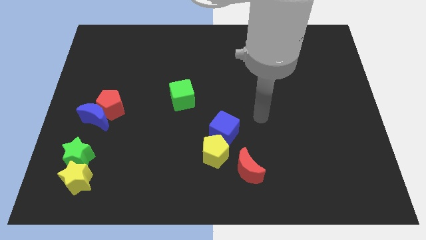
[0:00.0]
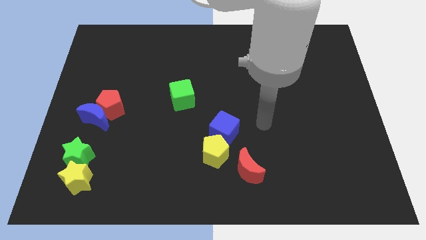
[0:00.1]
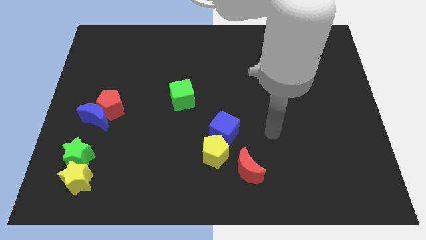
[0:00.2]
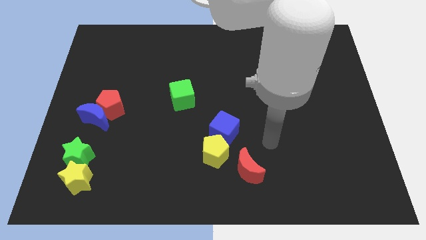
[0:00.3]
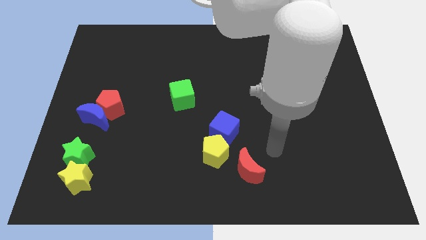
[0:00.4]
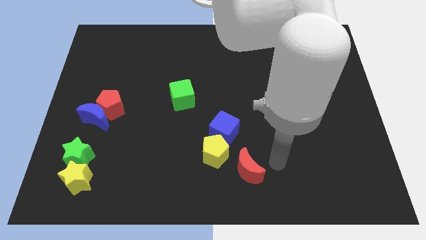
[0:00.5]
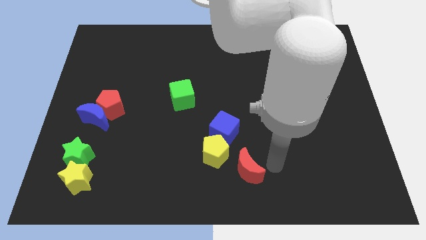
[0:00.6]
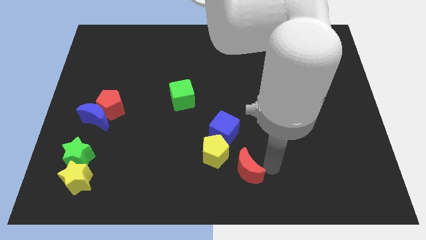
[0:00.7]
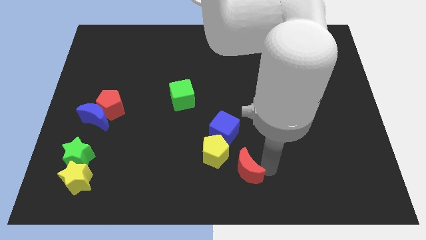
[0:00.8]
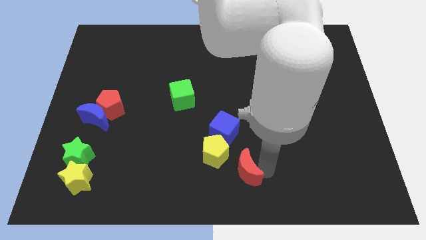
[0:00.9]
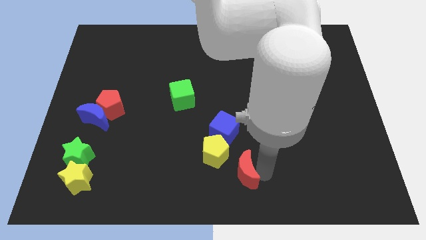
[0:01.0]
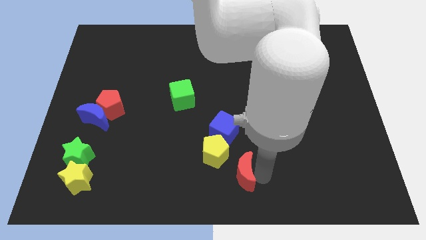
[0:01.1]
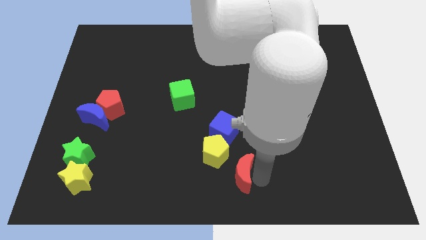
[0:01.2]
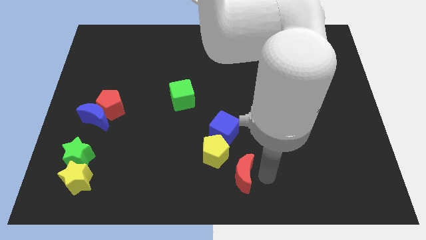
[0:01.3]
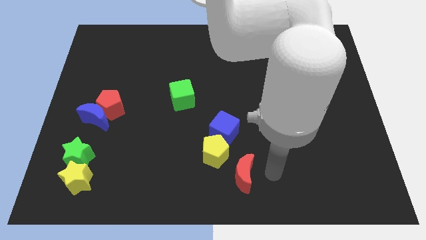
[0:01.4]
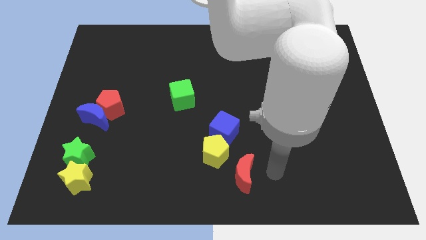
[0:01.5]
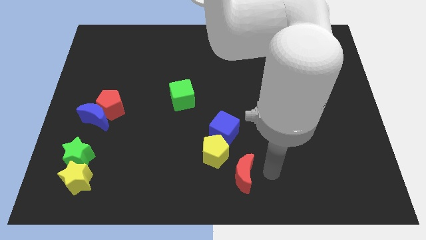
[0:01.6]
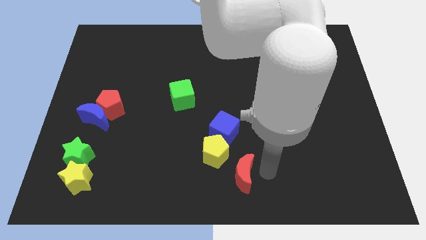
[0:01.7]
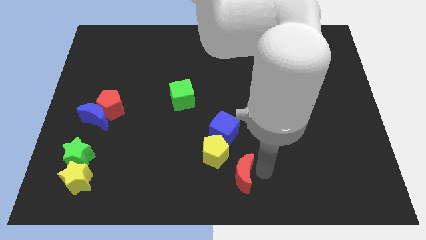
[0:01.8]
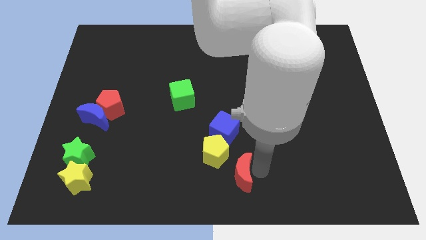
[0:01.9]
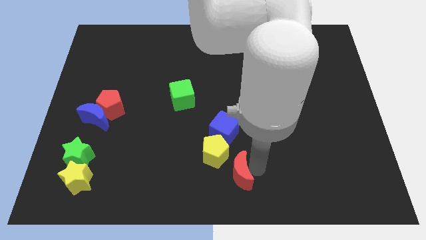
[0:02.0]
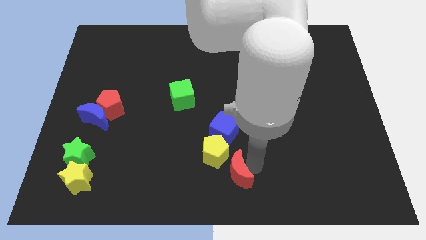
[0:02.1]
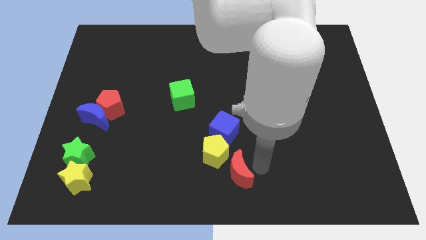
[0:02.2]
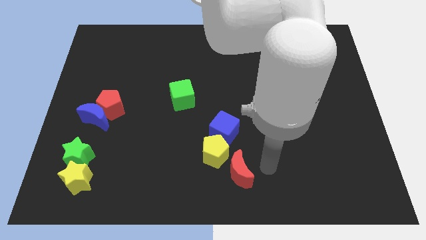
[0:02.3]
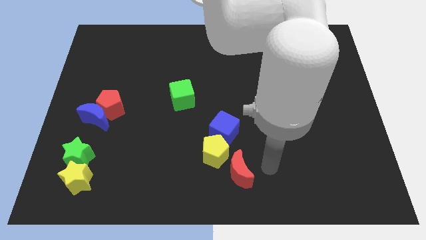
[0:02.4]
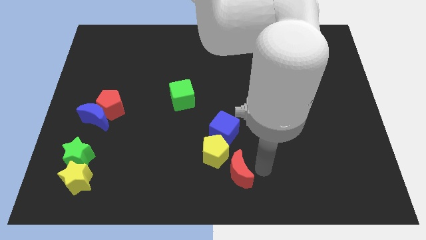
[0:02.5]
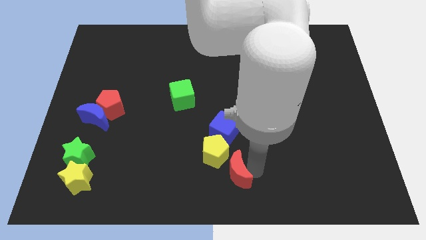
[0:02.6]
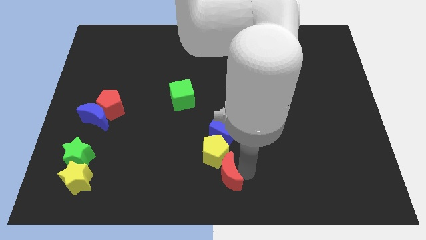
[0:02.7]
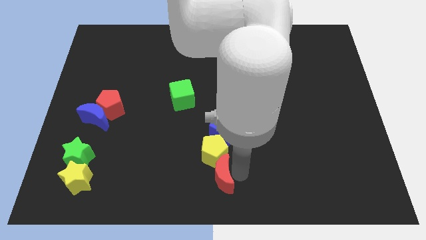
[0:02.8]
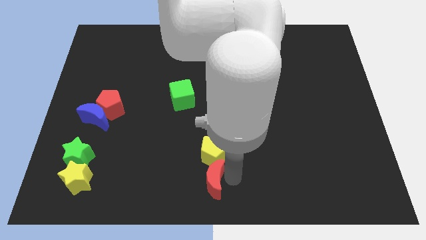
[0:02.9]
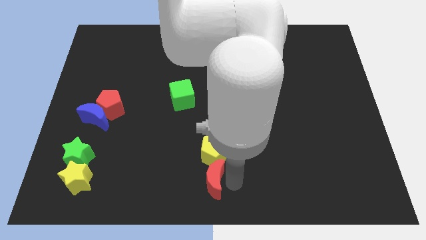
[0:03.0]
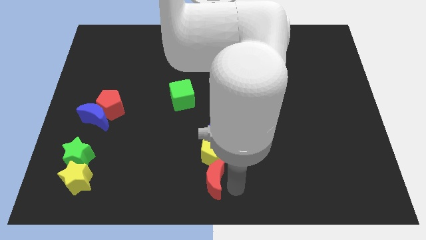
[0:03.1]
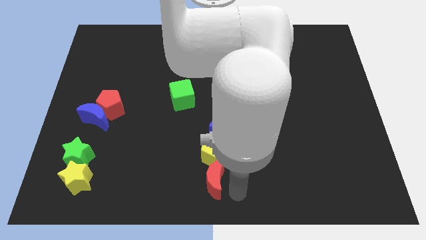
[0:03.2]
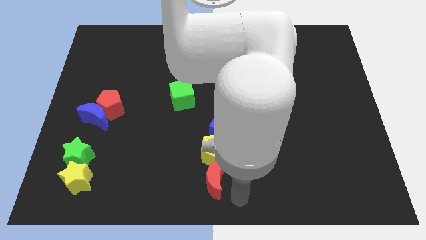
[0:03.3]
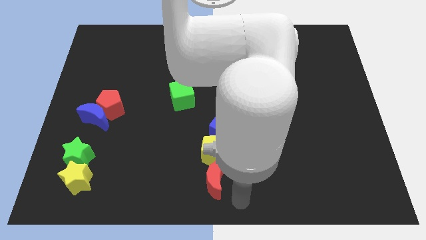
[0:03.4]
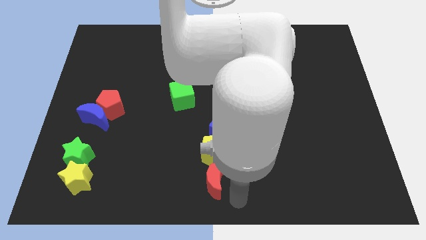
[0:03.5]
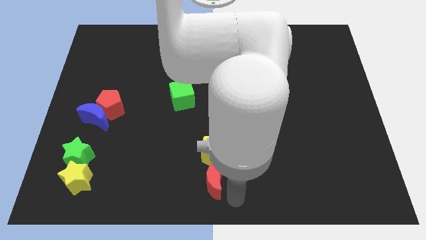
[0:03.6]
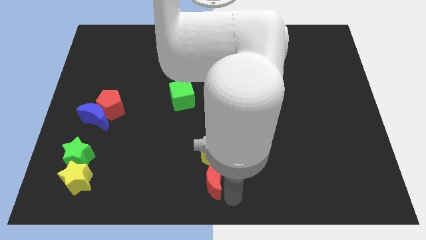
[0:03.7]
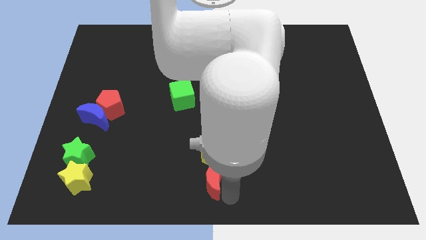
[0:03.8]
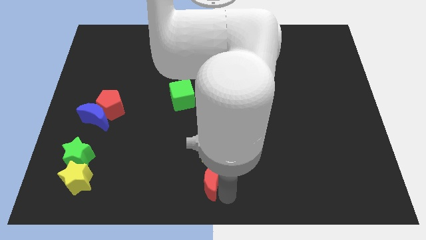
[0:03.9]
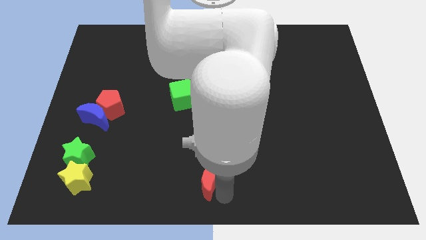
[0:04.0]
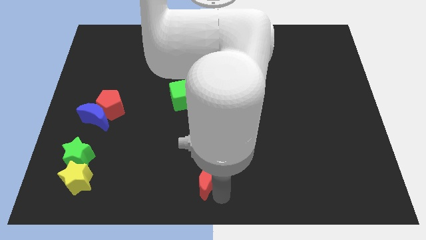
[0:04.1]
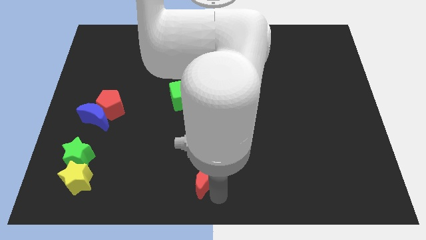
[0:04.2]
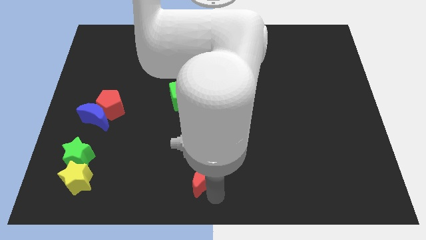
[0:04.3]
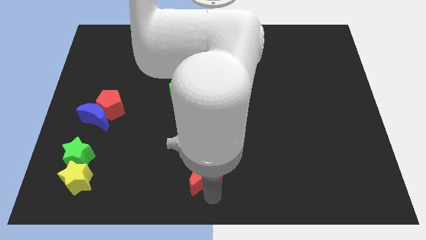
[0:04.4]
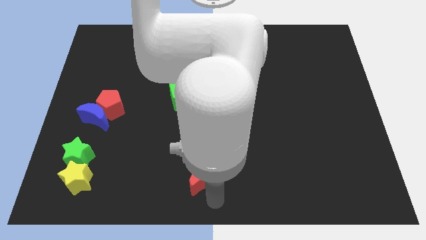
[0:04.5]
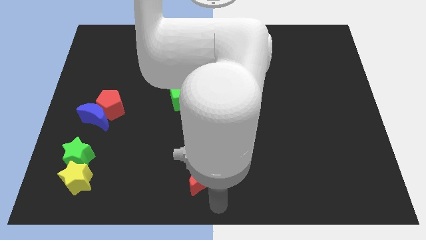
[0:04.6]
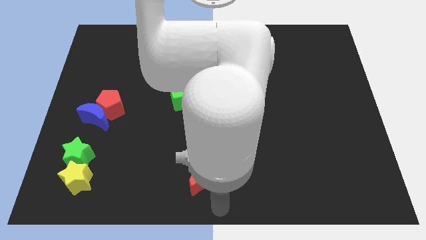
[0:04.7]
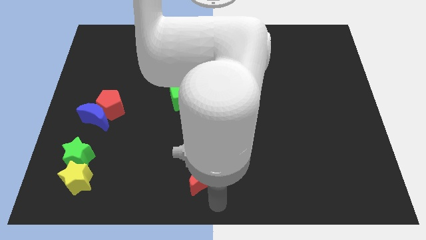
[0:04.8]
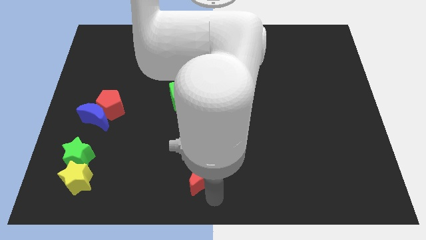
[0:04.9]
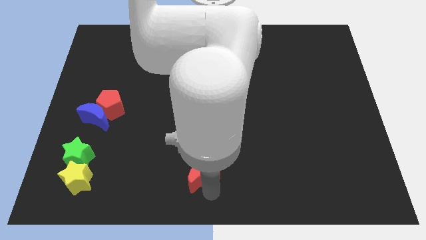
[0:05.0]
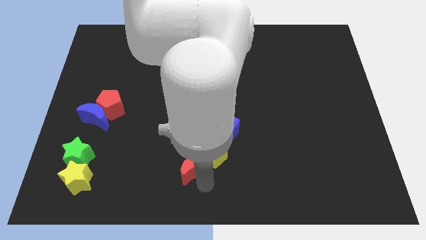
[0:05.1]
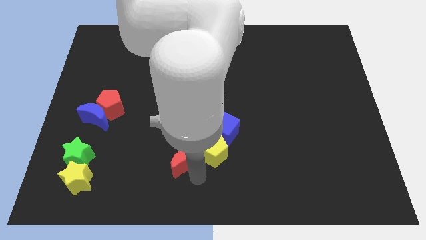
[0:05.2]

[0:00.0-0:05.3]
slide the red moon diagonally up and left a little

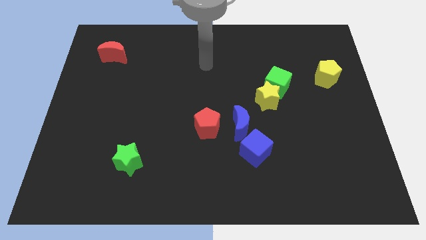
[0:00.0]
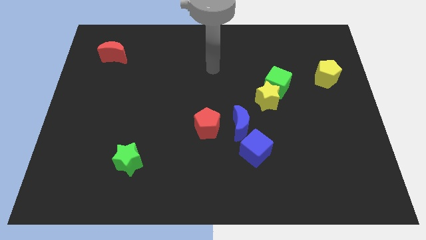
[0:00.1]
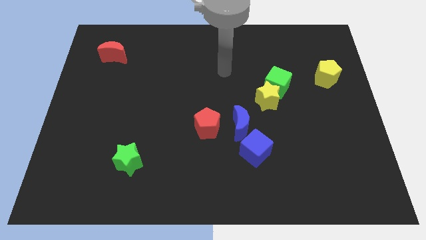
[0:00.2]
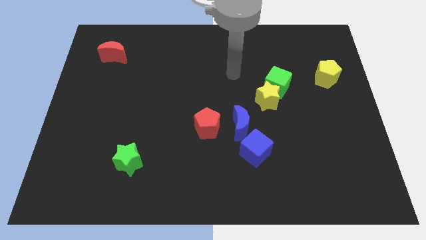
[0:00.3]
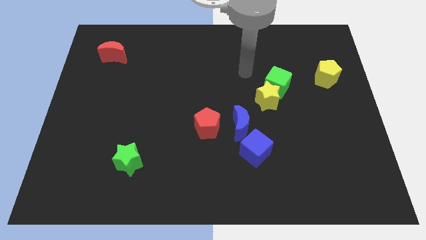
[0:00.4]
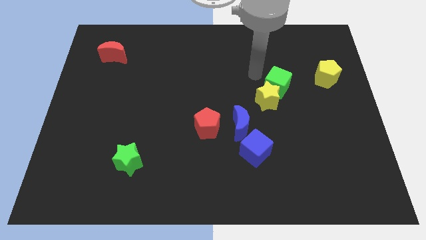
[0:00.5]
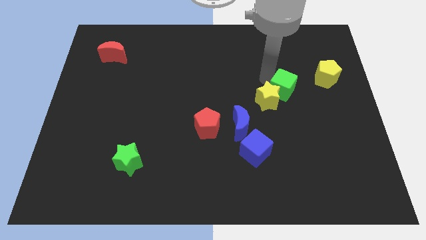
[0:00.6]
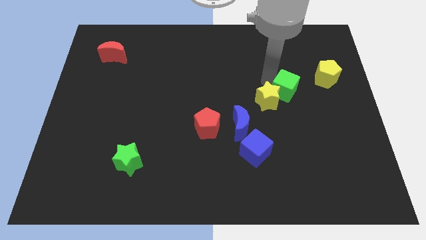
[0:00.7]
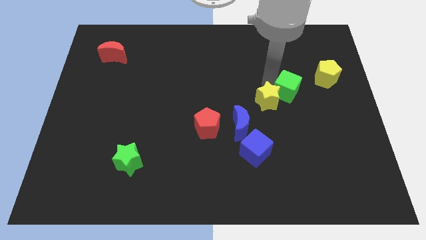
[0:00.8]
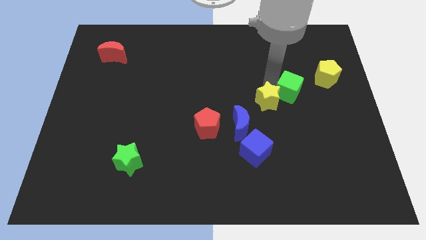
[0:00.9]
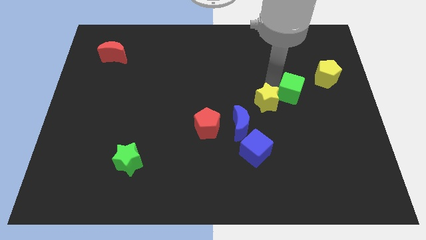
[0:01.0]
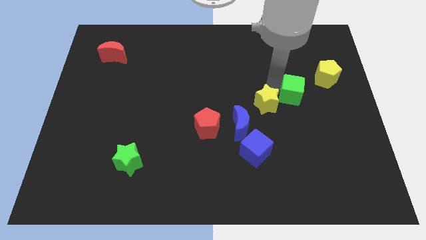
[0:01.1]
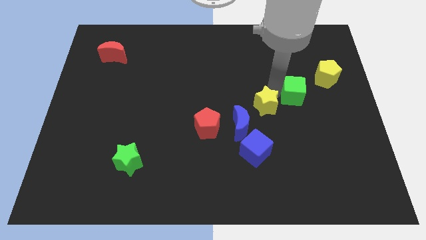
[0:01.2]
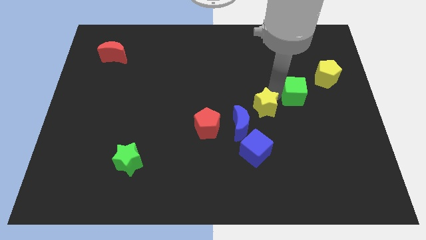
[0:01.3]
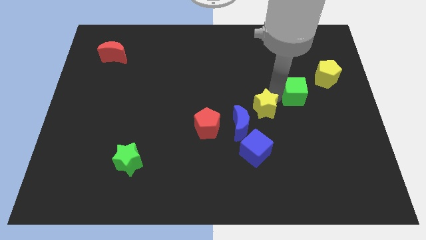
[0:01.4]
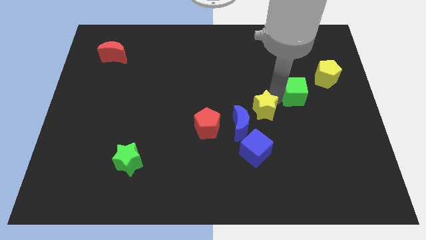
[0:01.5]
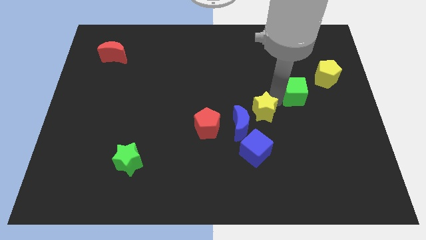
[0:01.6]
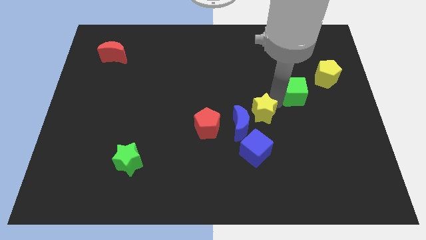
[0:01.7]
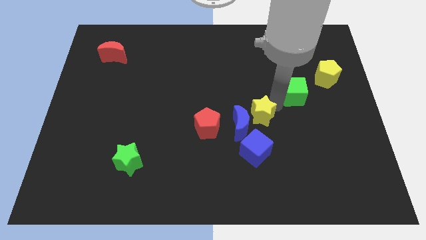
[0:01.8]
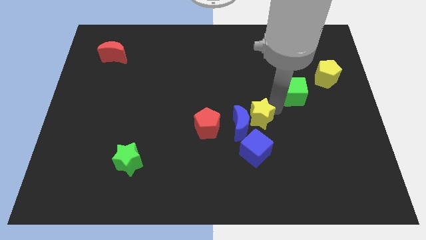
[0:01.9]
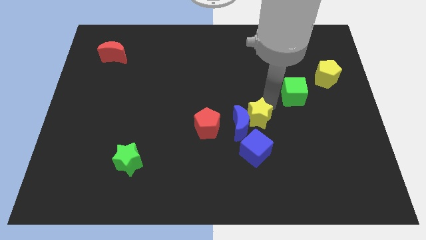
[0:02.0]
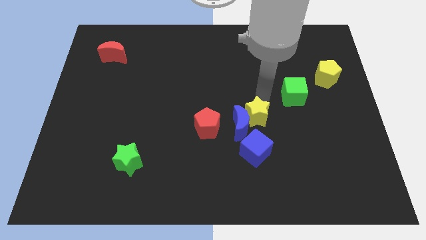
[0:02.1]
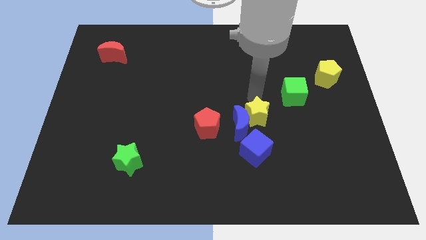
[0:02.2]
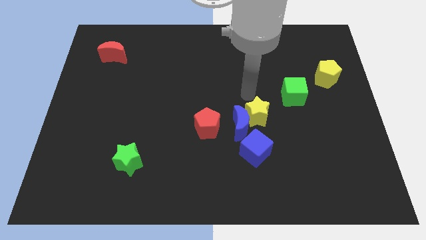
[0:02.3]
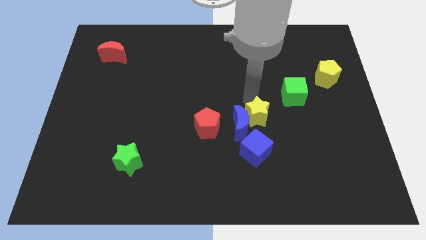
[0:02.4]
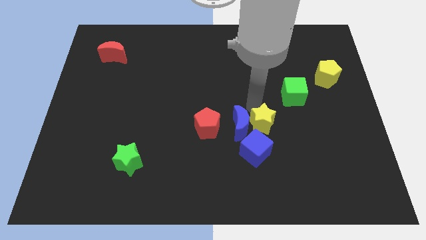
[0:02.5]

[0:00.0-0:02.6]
push the yellow star a bit down
